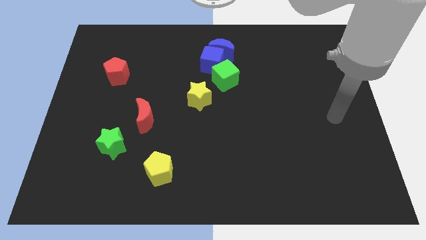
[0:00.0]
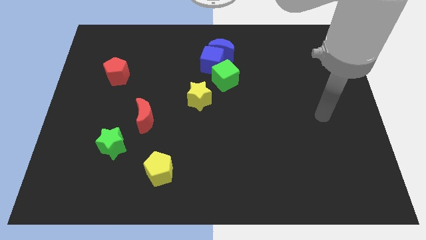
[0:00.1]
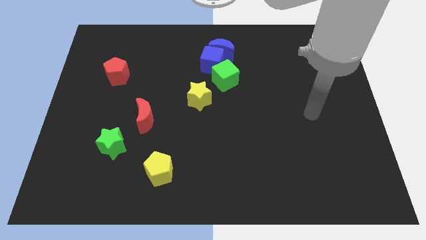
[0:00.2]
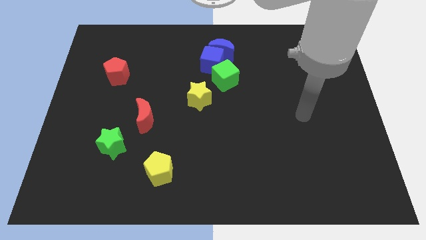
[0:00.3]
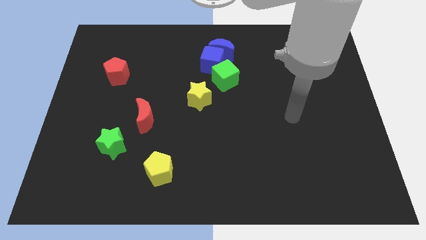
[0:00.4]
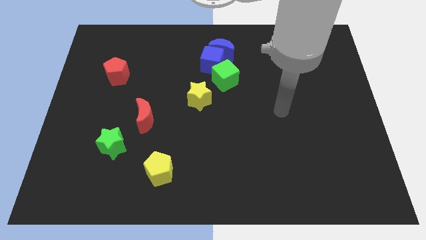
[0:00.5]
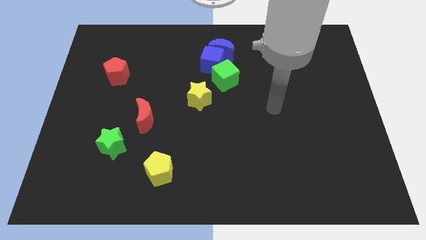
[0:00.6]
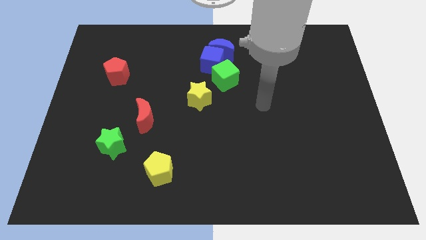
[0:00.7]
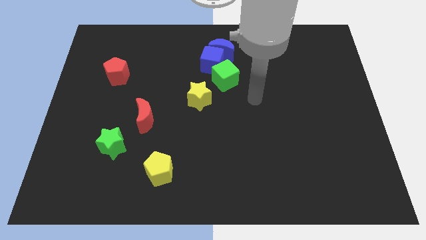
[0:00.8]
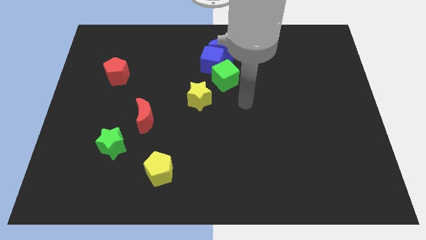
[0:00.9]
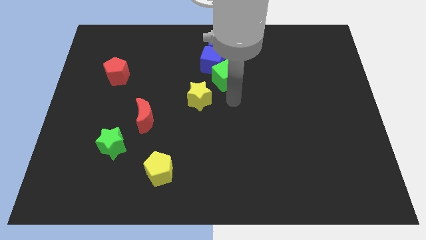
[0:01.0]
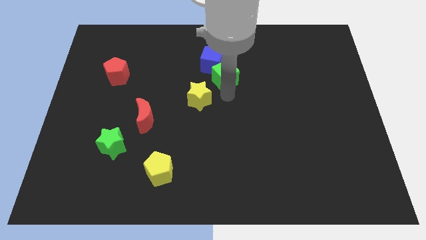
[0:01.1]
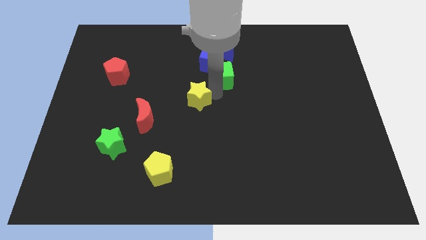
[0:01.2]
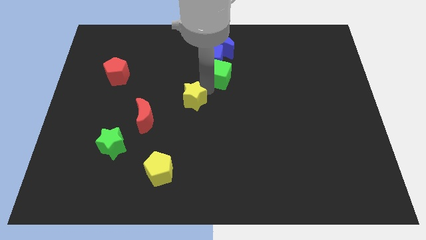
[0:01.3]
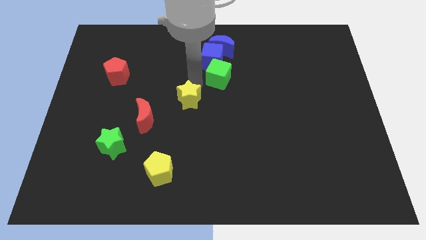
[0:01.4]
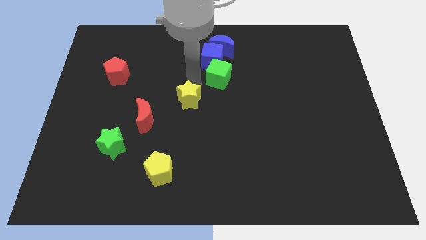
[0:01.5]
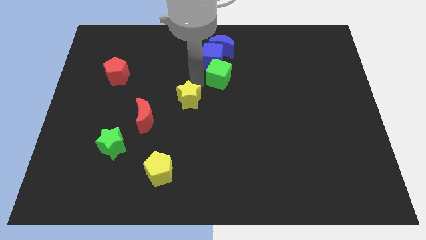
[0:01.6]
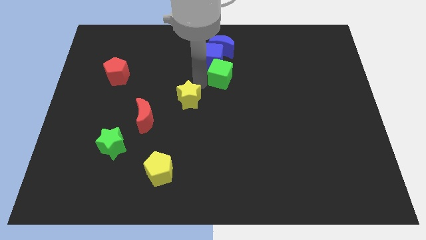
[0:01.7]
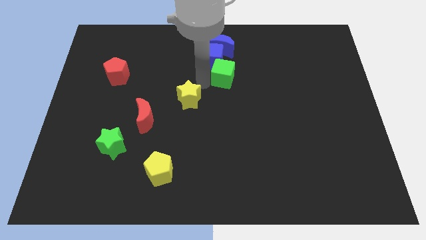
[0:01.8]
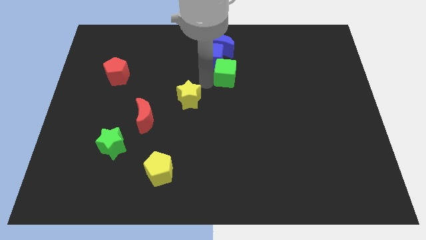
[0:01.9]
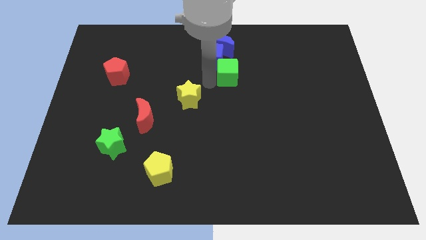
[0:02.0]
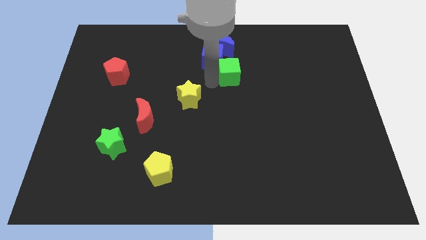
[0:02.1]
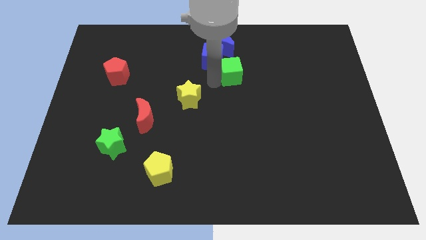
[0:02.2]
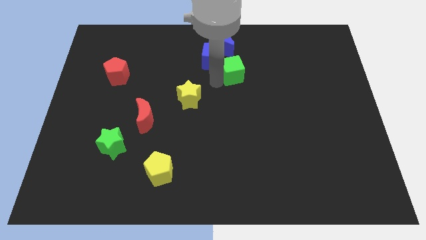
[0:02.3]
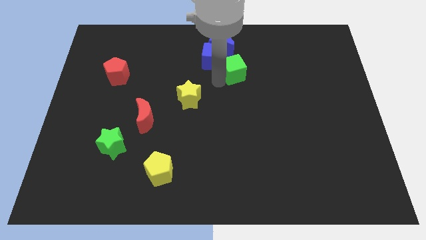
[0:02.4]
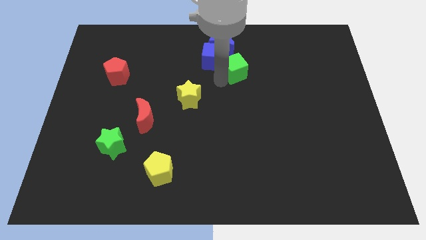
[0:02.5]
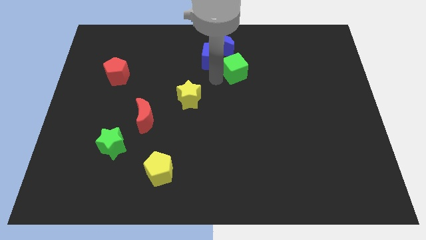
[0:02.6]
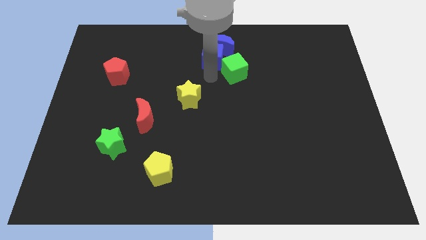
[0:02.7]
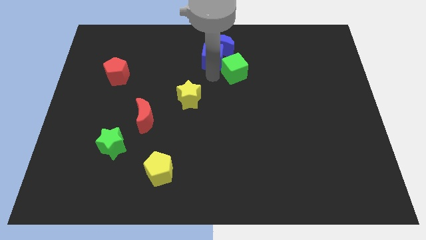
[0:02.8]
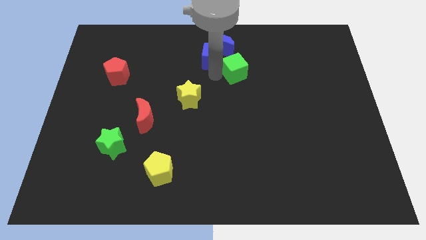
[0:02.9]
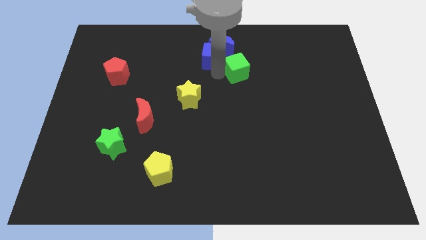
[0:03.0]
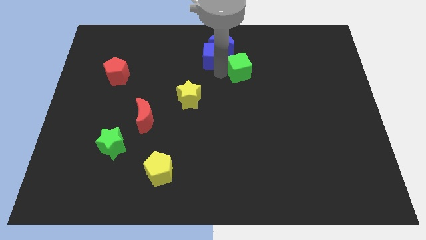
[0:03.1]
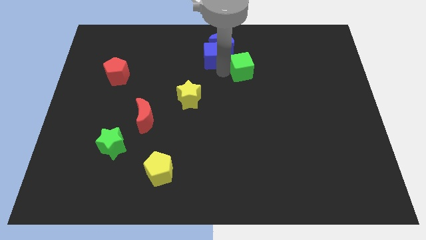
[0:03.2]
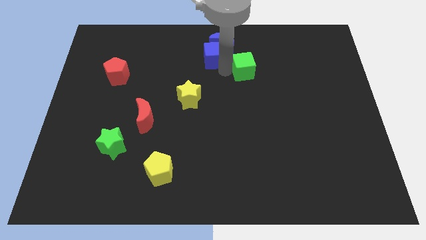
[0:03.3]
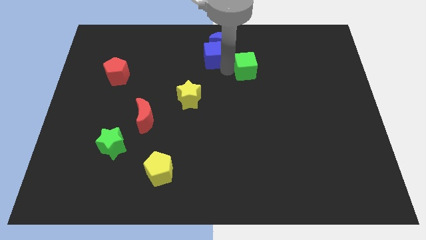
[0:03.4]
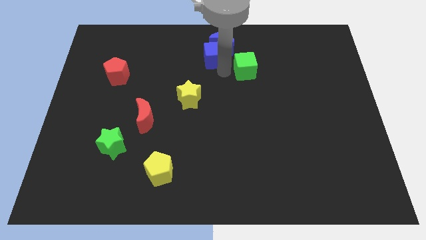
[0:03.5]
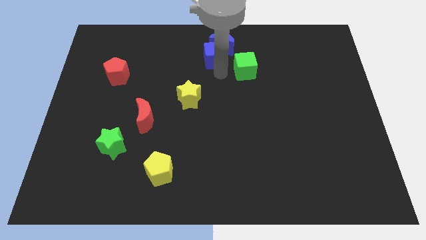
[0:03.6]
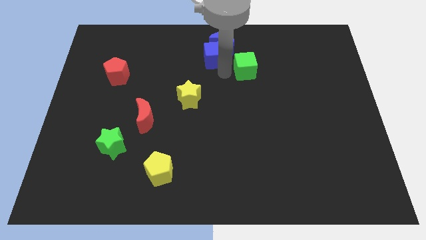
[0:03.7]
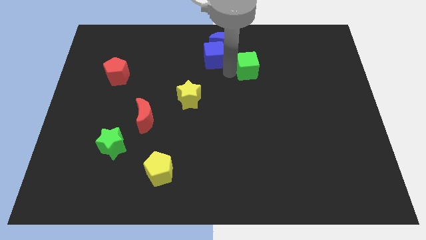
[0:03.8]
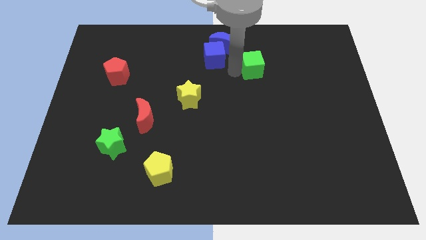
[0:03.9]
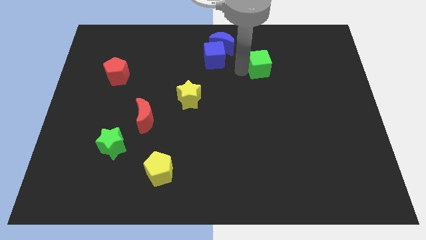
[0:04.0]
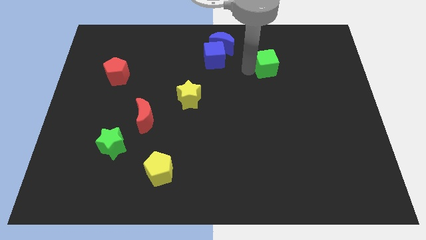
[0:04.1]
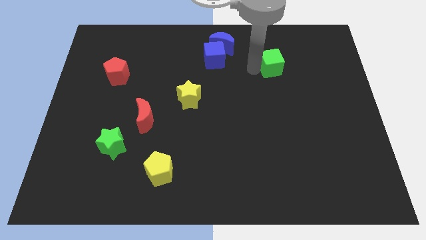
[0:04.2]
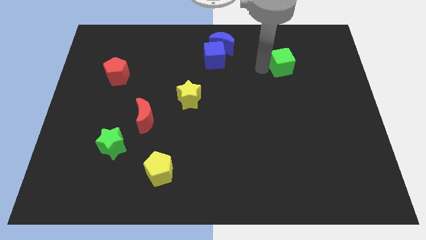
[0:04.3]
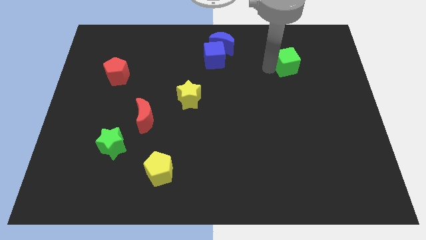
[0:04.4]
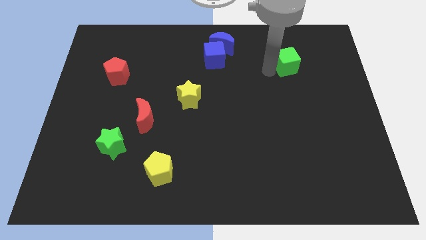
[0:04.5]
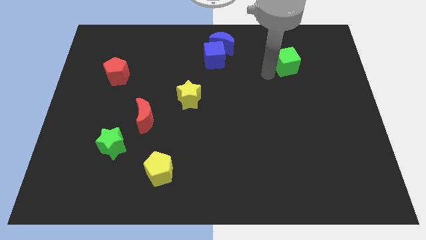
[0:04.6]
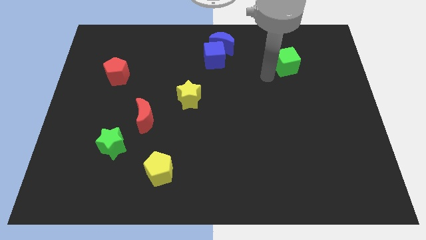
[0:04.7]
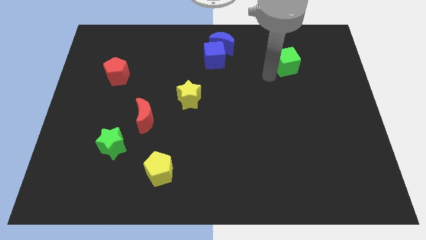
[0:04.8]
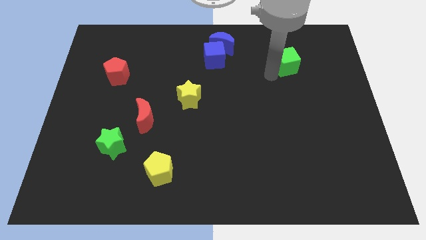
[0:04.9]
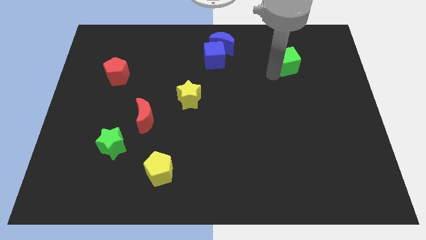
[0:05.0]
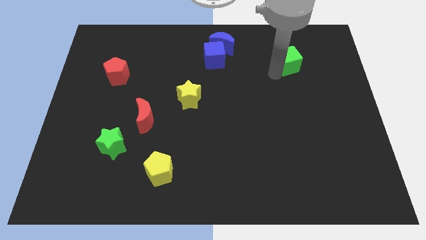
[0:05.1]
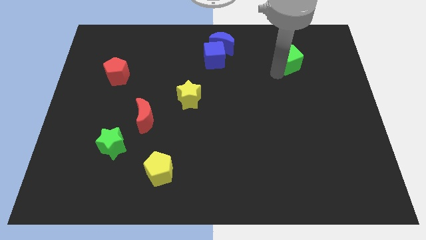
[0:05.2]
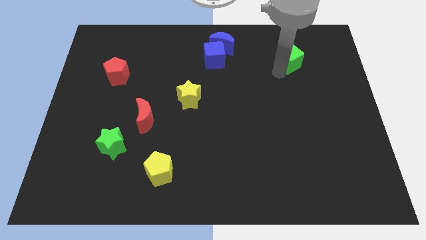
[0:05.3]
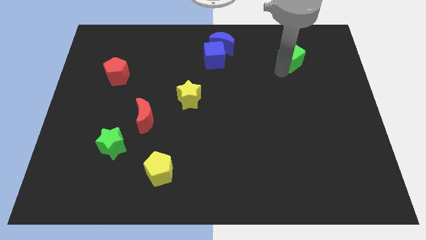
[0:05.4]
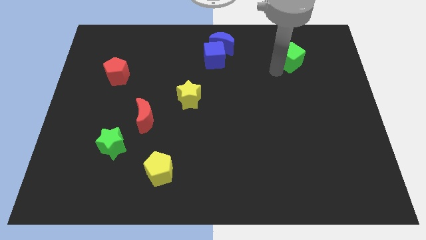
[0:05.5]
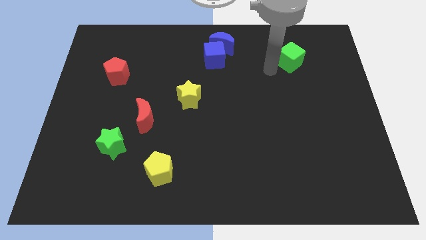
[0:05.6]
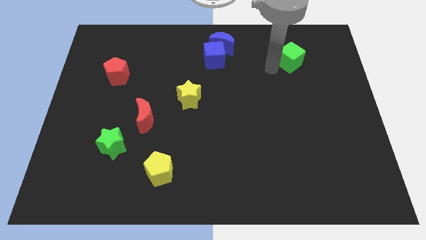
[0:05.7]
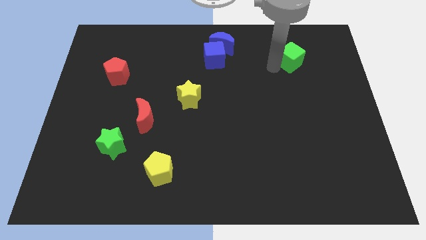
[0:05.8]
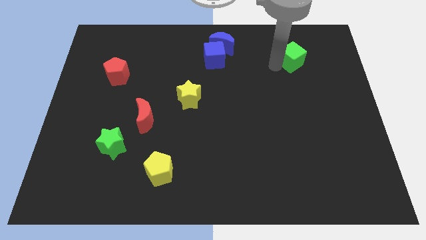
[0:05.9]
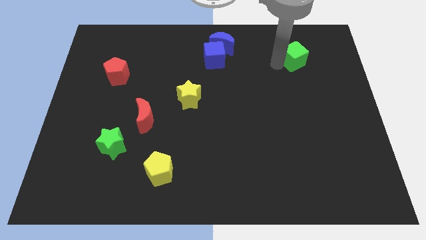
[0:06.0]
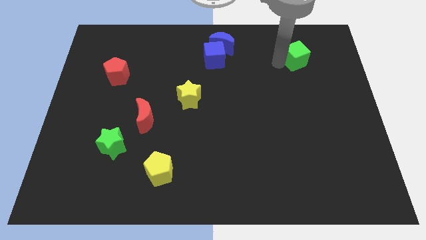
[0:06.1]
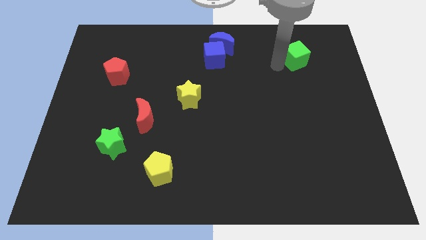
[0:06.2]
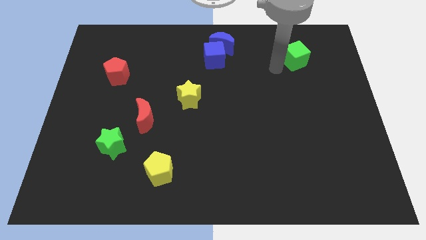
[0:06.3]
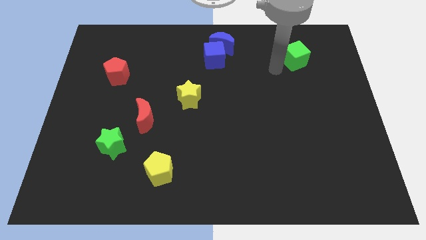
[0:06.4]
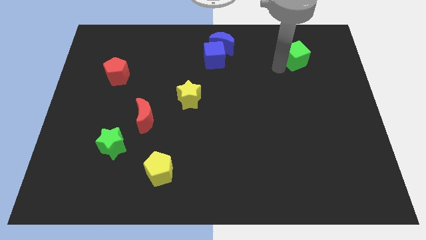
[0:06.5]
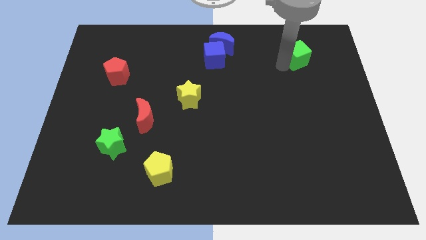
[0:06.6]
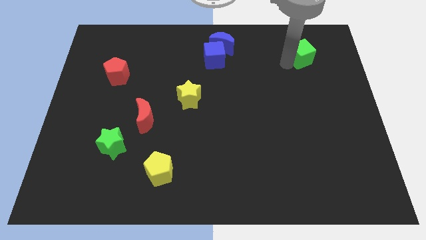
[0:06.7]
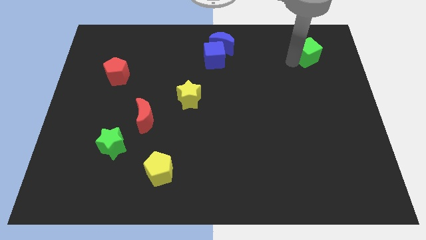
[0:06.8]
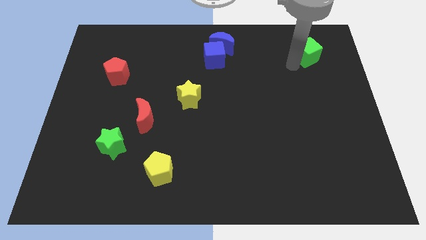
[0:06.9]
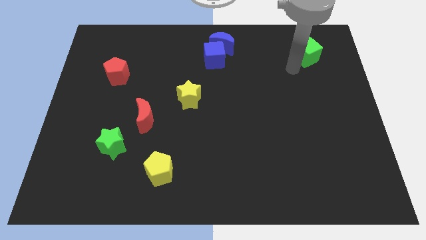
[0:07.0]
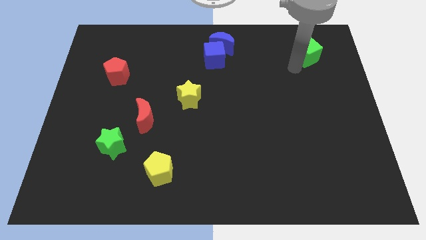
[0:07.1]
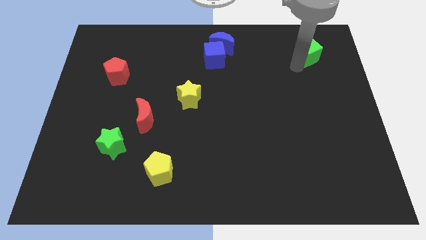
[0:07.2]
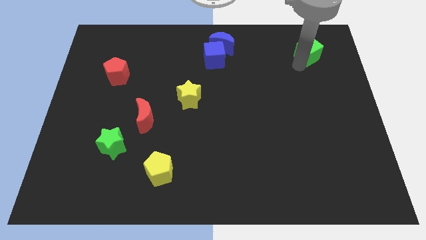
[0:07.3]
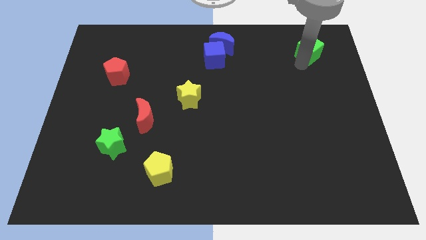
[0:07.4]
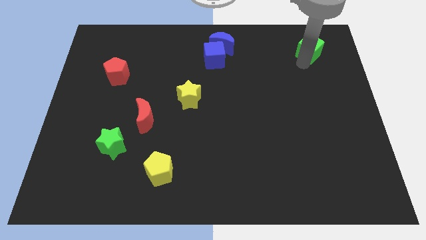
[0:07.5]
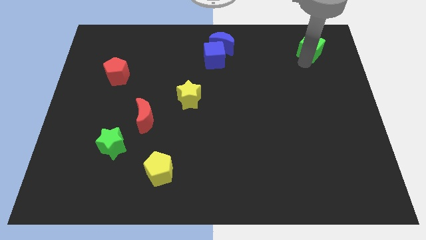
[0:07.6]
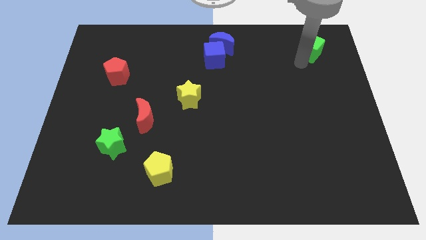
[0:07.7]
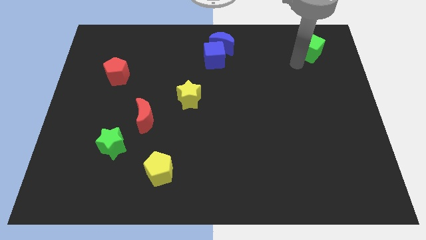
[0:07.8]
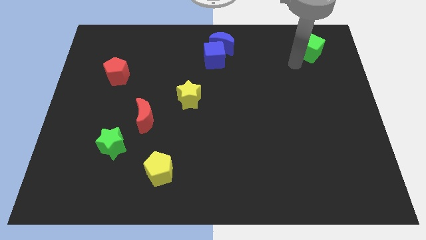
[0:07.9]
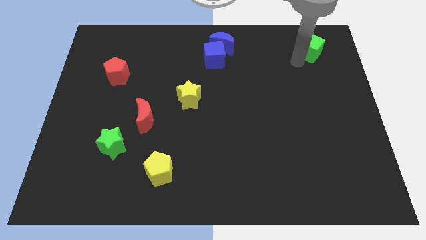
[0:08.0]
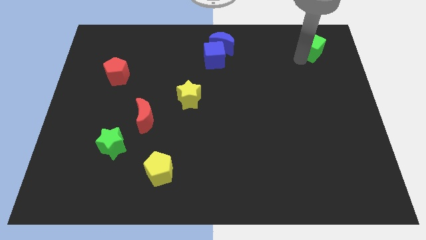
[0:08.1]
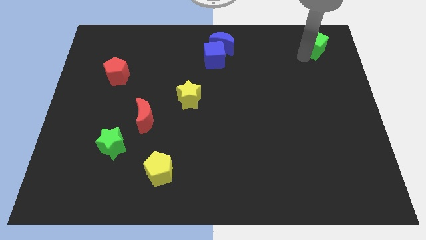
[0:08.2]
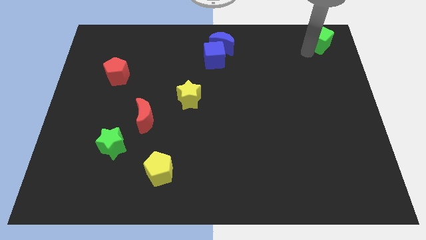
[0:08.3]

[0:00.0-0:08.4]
put the green cube to the top right of the board
